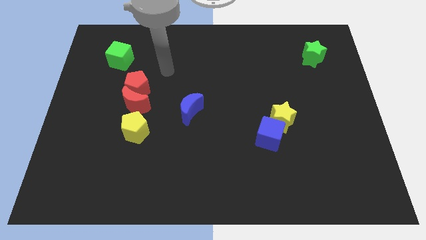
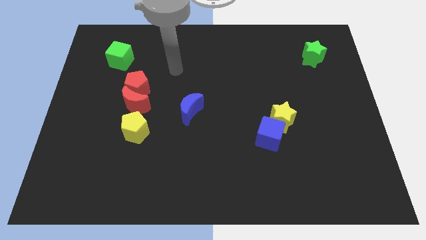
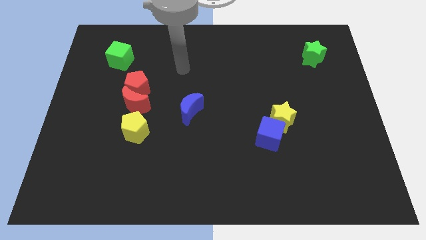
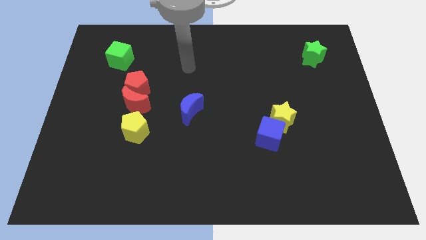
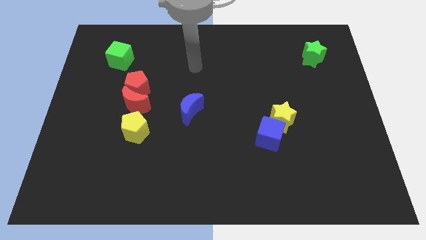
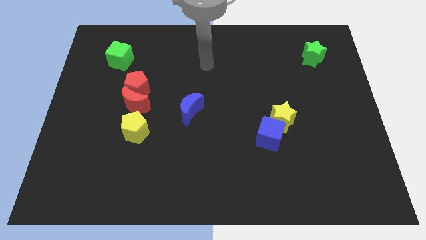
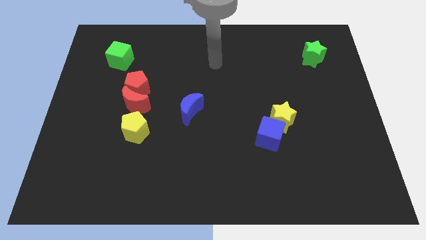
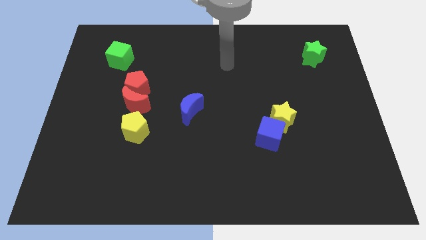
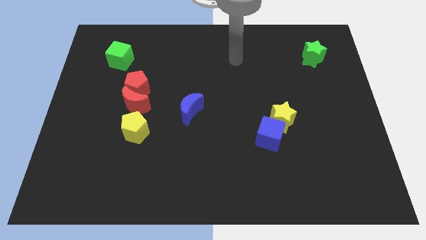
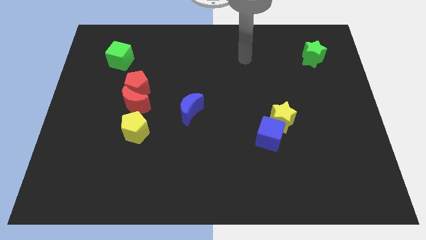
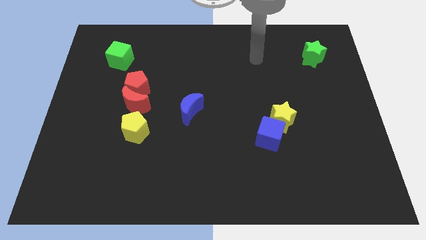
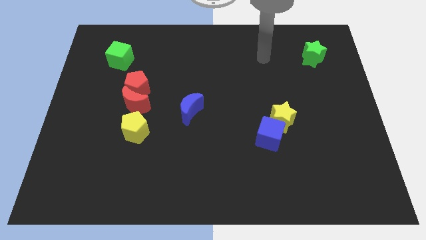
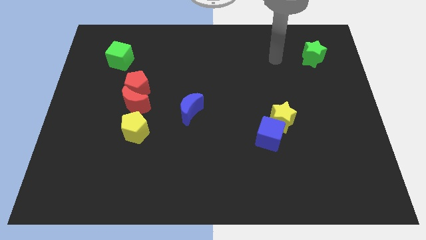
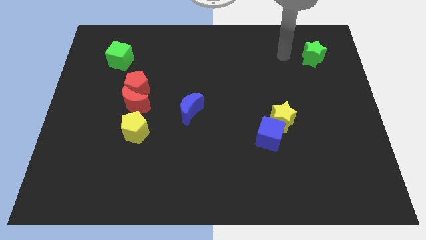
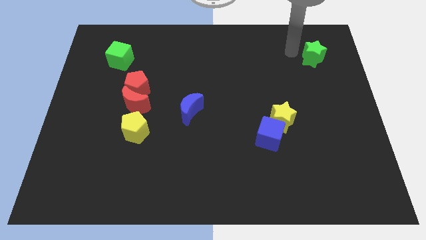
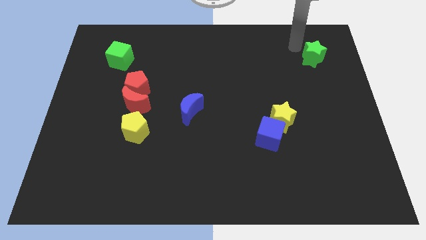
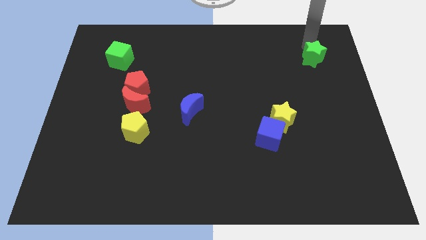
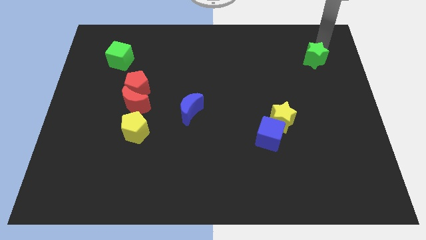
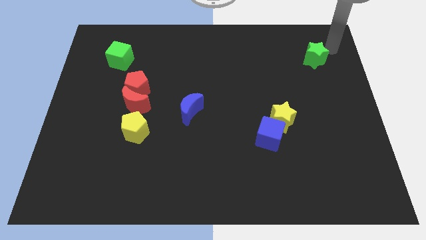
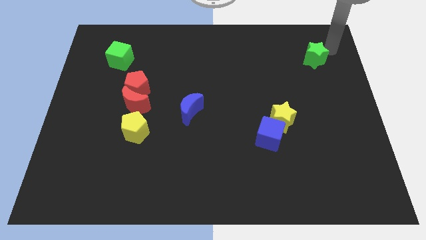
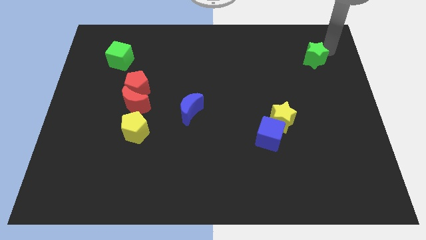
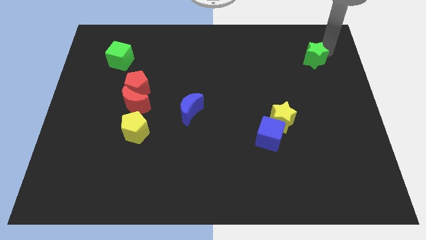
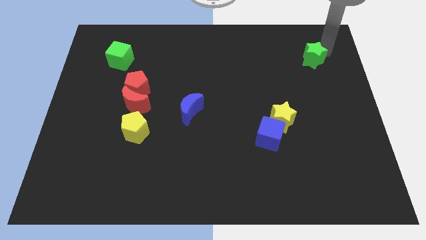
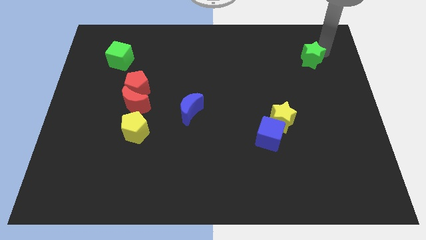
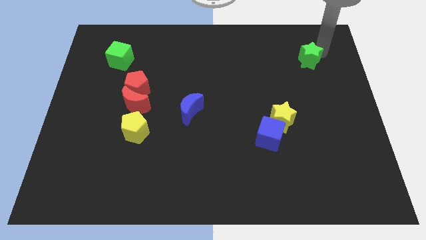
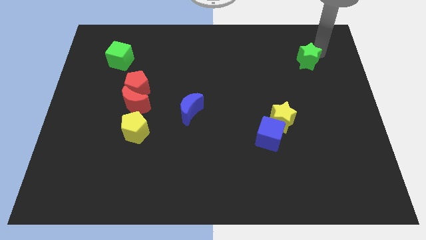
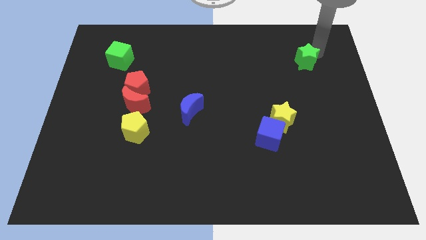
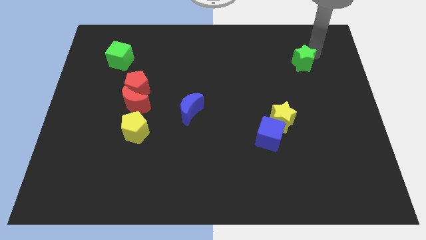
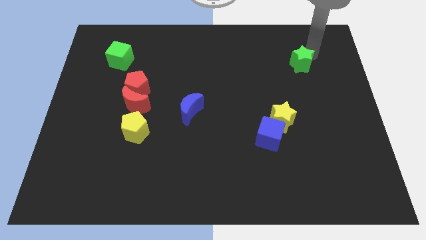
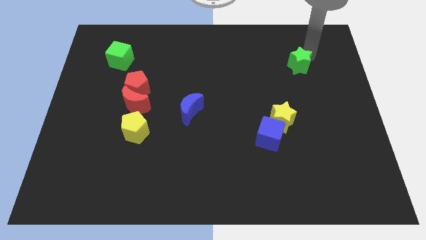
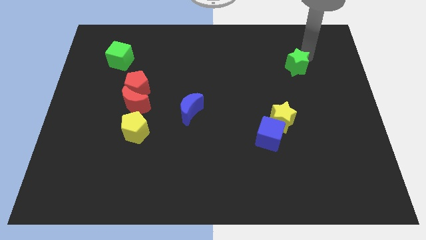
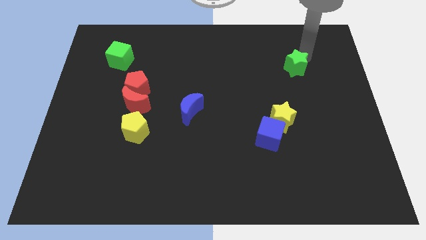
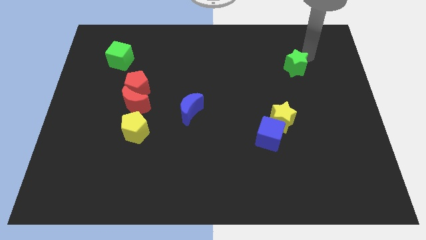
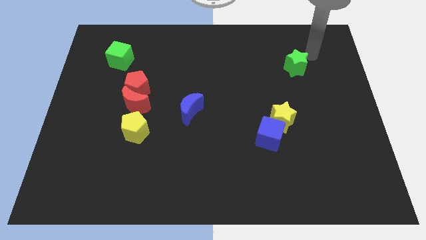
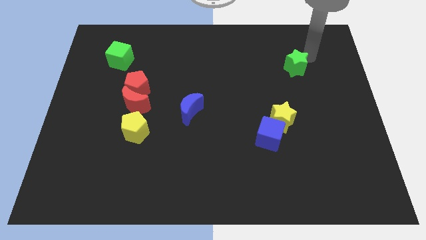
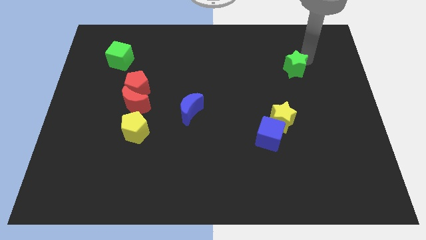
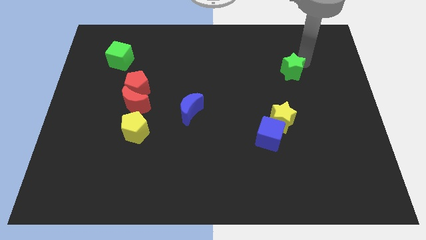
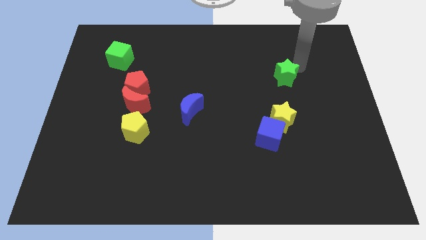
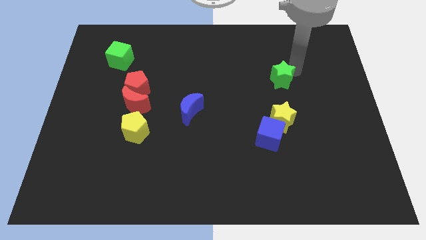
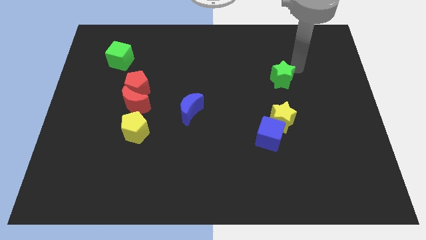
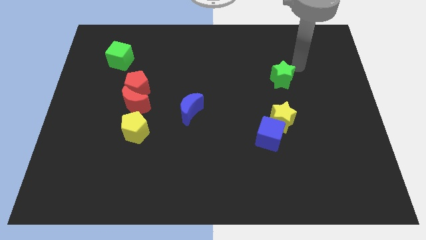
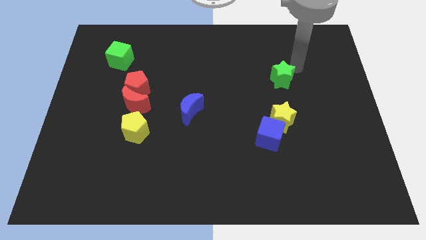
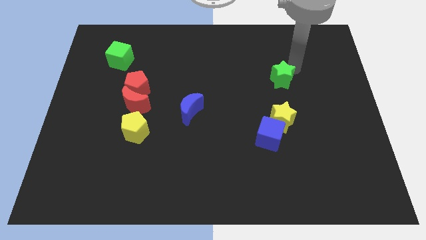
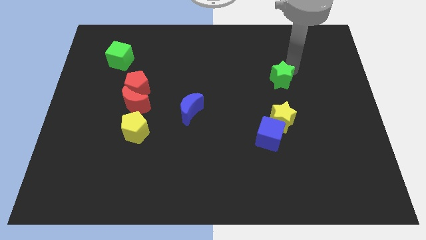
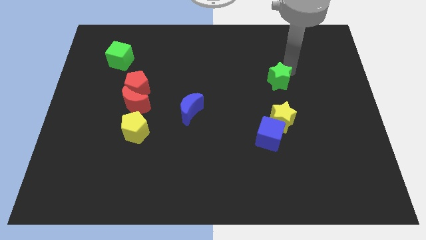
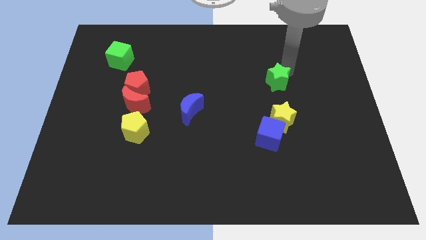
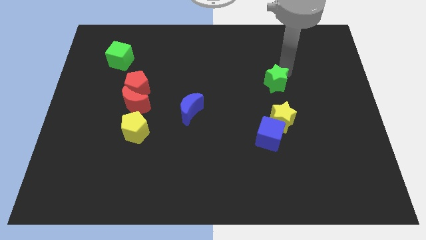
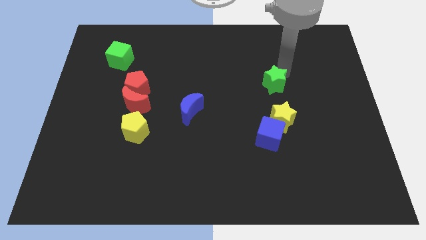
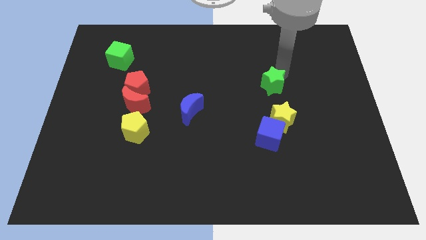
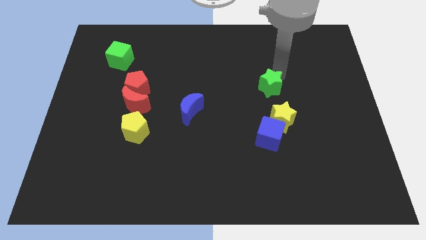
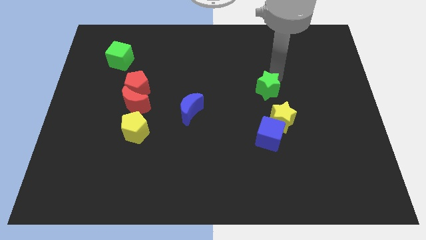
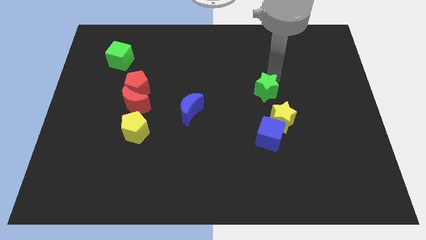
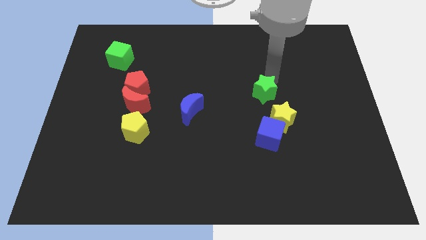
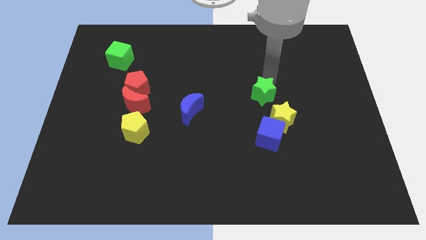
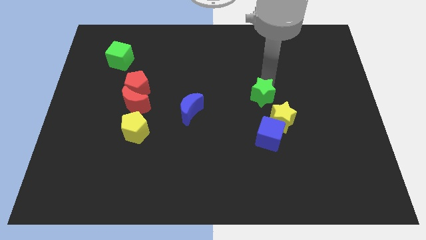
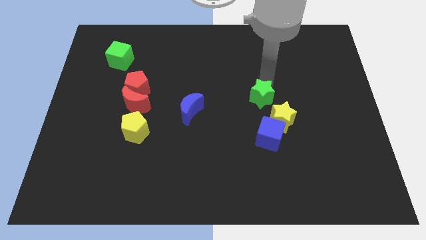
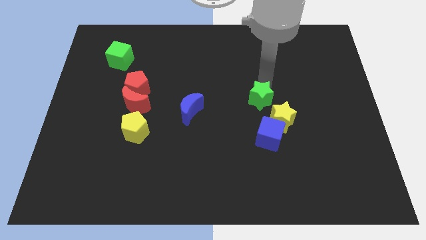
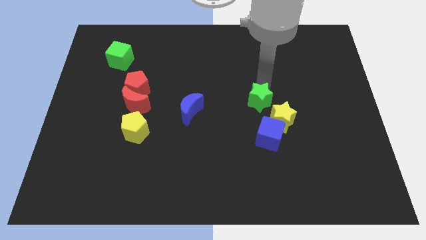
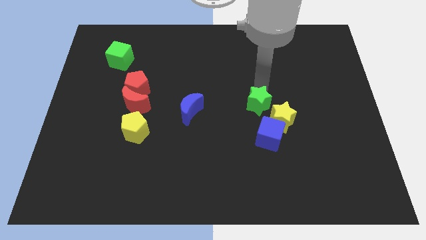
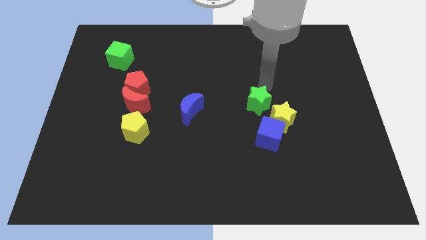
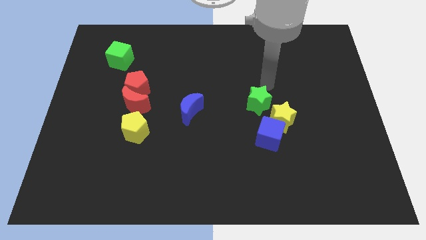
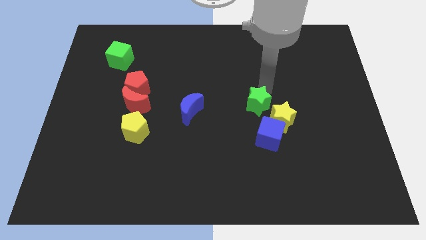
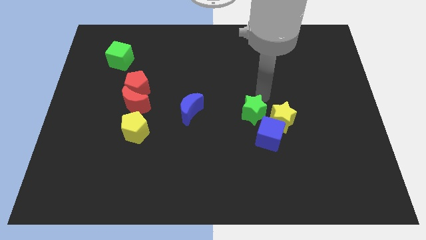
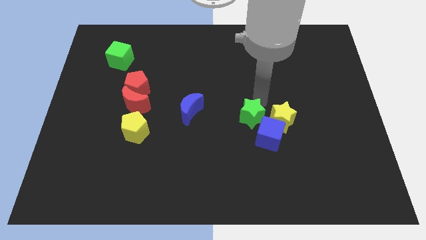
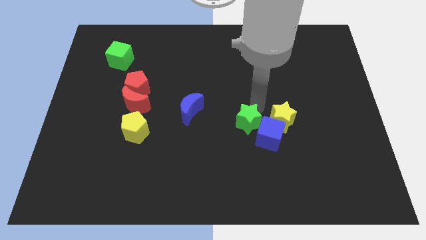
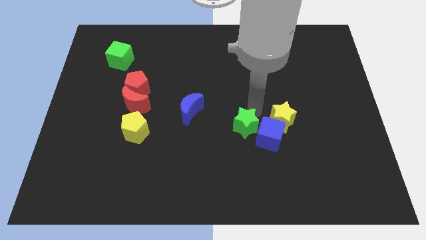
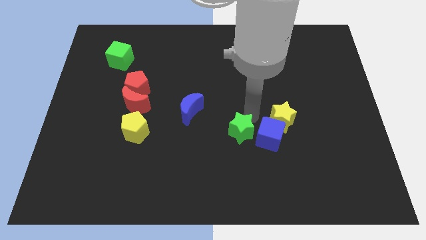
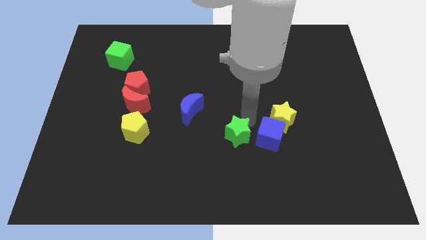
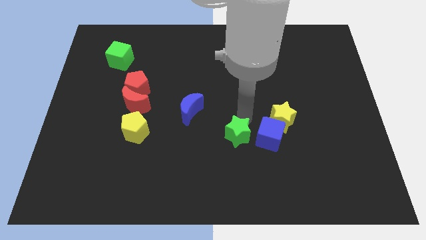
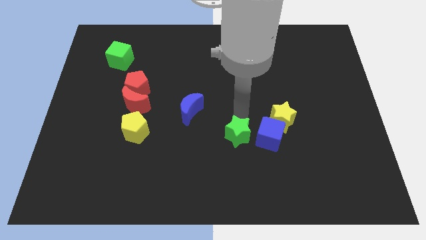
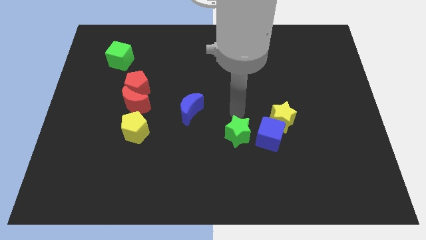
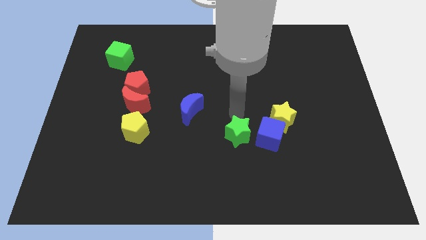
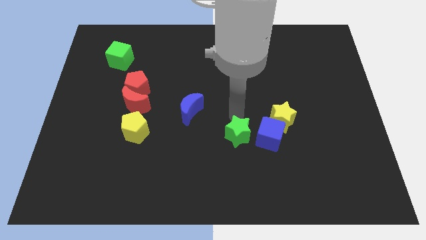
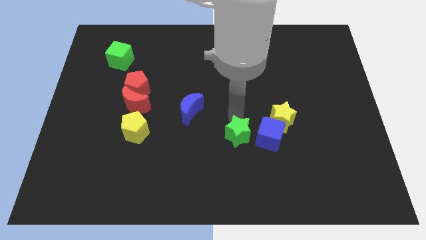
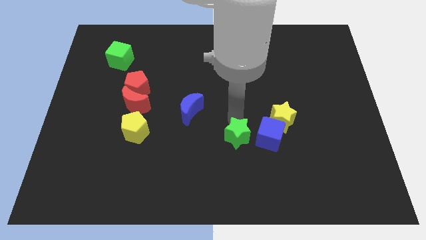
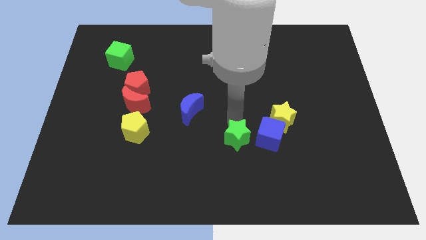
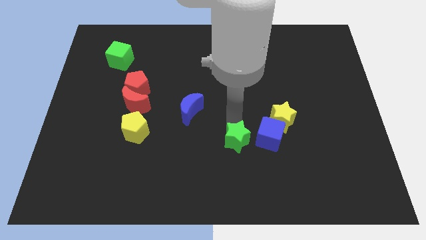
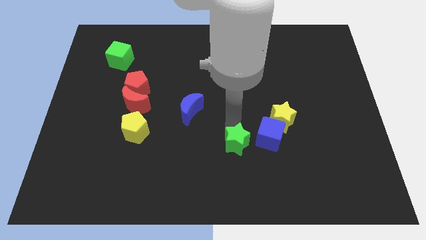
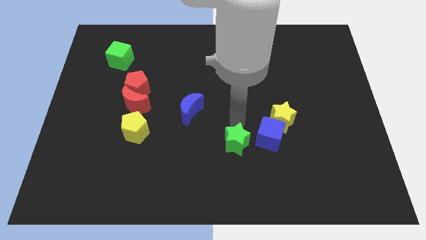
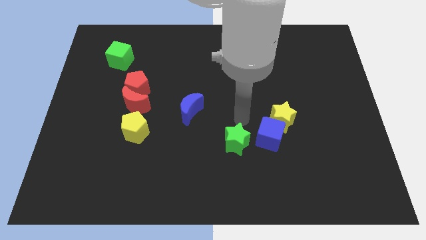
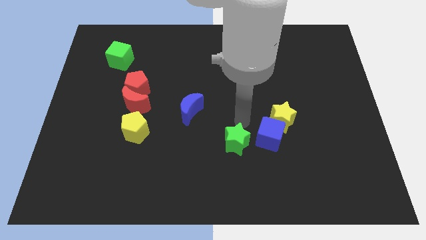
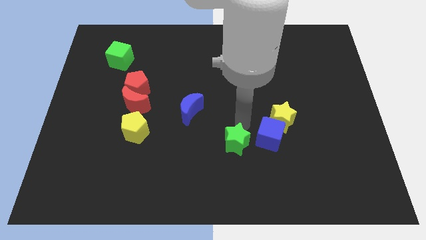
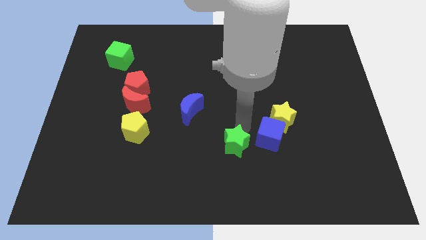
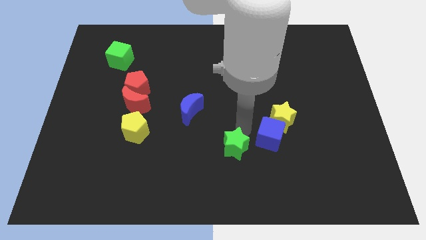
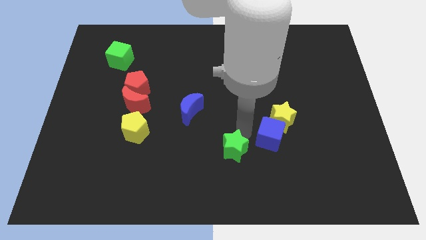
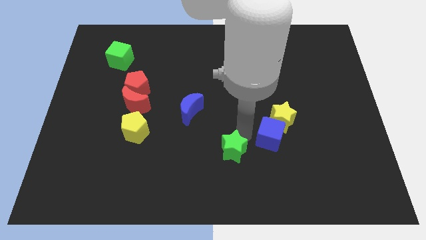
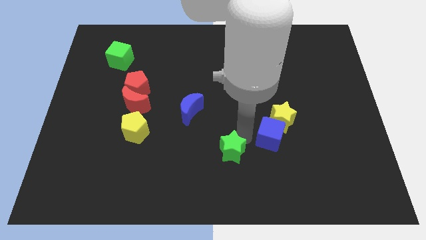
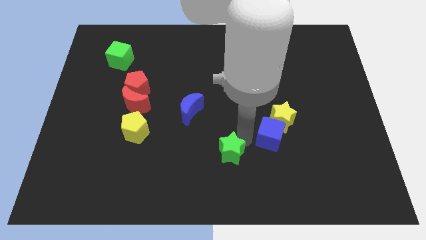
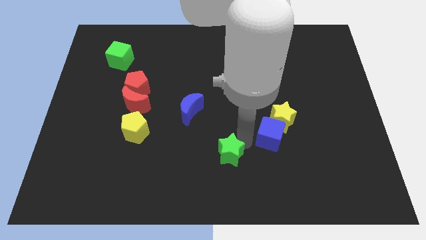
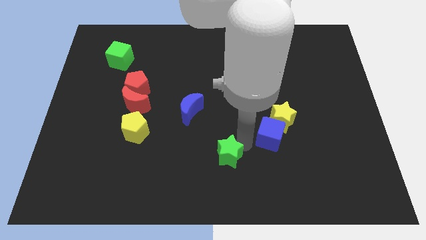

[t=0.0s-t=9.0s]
slide the green star to the bottom side
